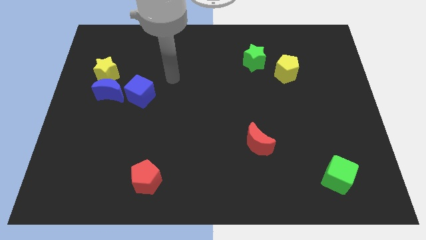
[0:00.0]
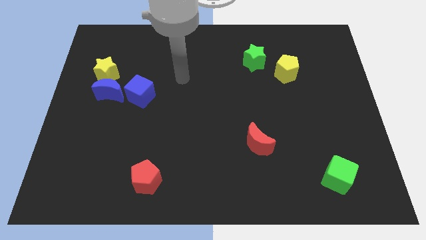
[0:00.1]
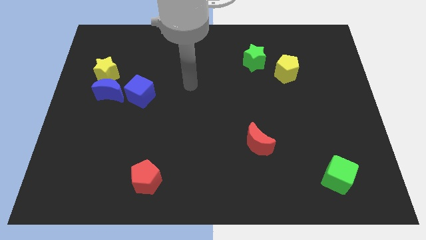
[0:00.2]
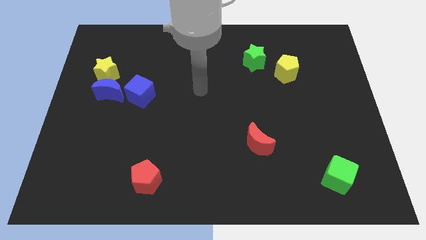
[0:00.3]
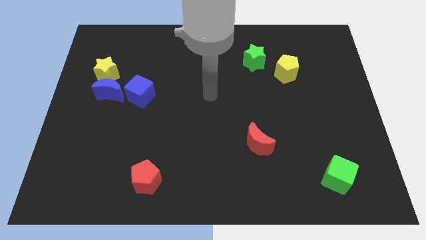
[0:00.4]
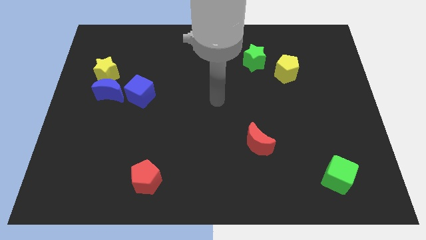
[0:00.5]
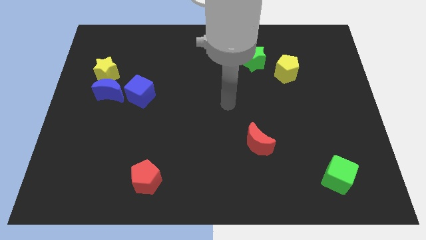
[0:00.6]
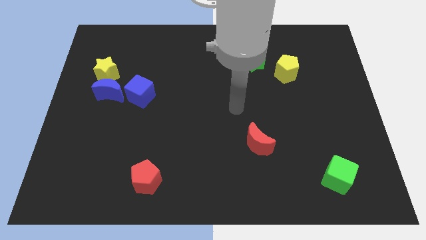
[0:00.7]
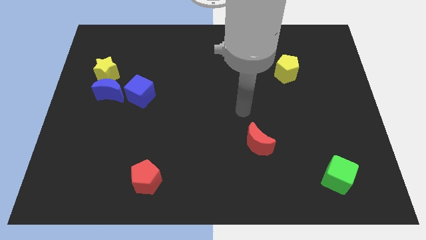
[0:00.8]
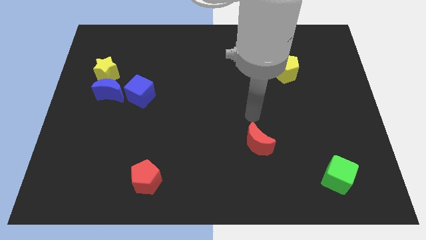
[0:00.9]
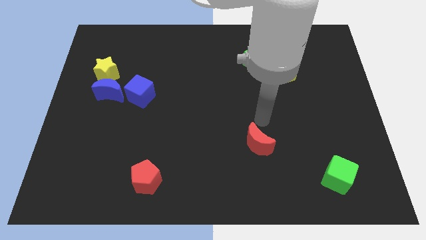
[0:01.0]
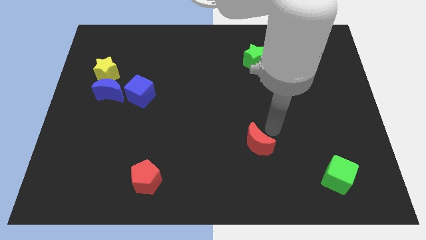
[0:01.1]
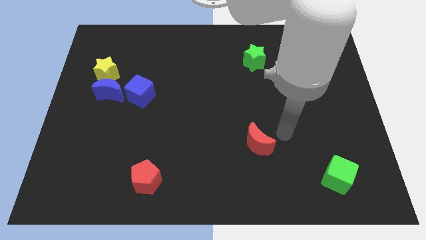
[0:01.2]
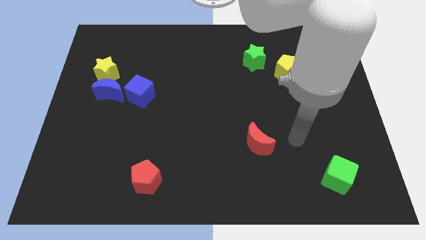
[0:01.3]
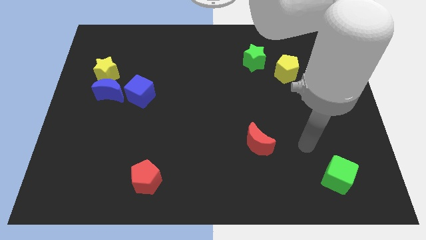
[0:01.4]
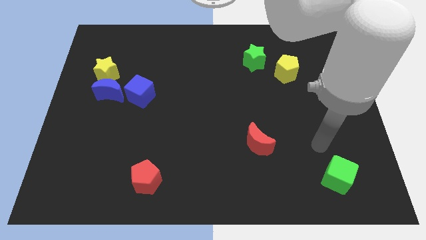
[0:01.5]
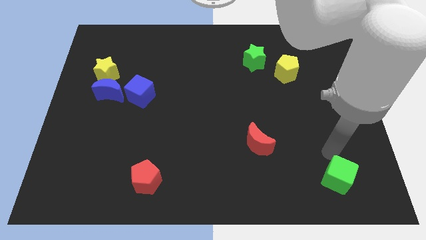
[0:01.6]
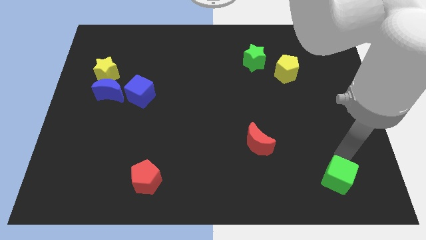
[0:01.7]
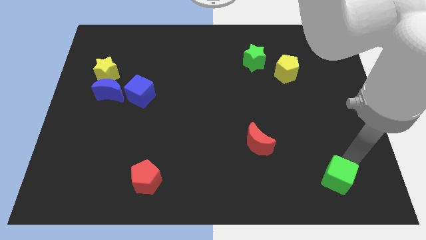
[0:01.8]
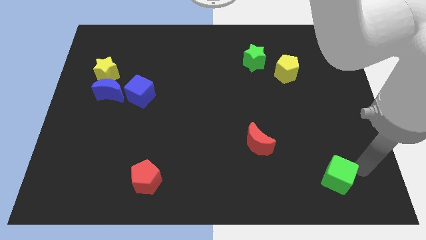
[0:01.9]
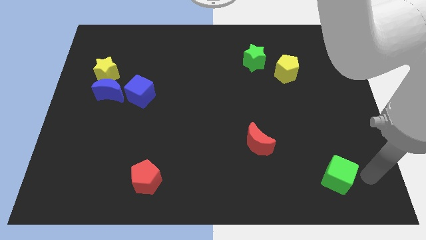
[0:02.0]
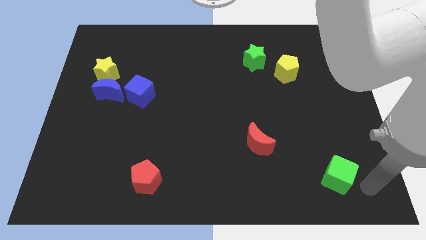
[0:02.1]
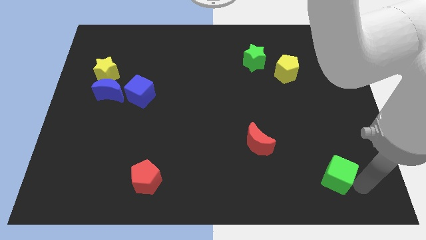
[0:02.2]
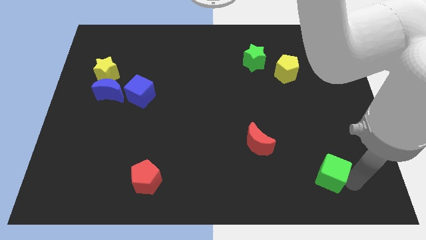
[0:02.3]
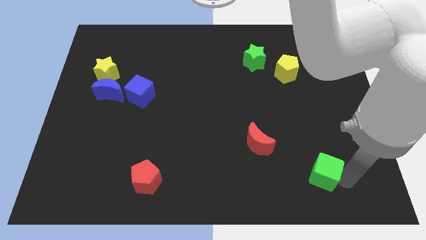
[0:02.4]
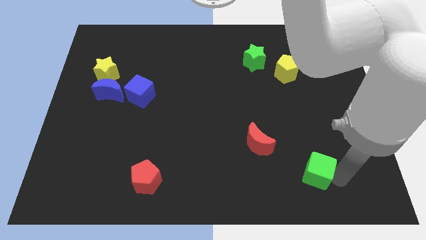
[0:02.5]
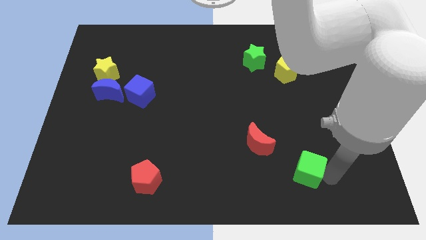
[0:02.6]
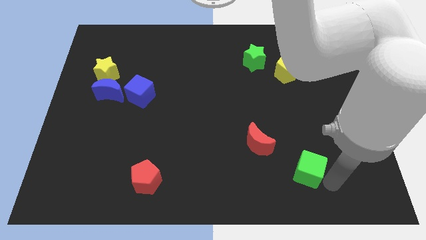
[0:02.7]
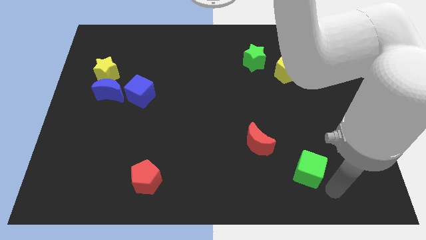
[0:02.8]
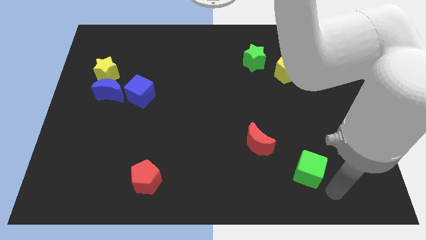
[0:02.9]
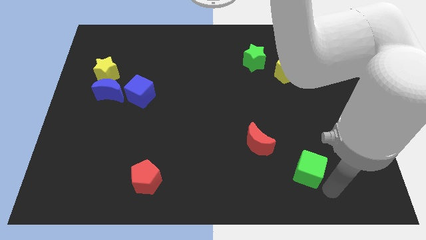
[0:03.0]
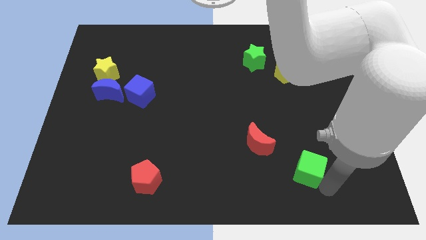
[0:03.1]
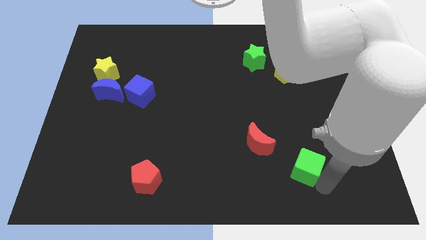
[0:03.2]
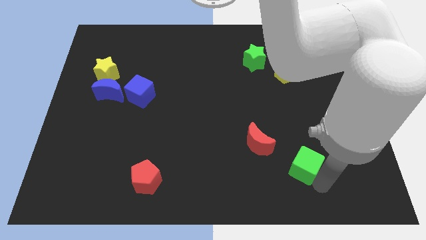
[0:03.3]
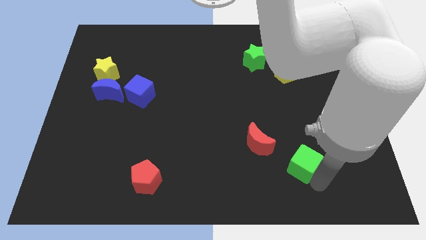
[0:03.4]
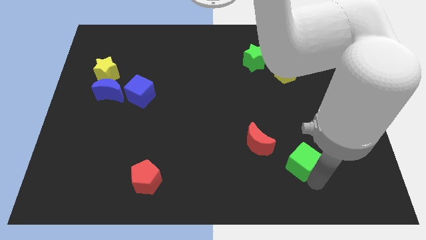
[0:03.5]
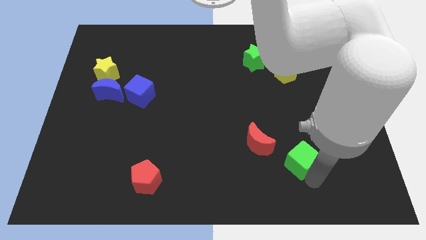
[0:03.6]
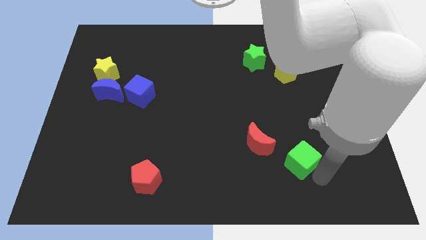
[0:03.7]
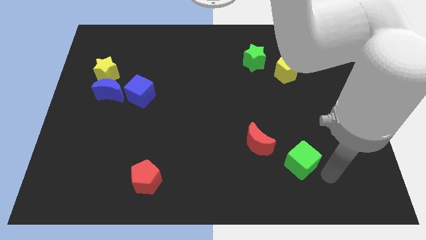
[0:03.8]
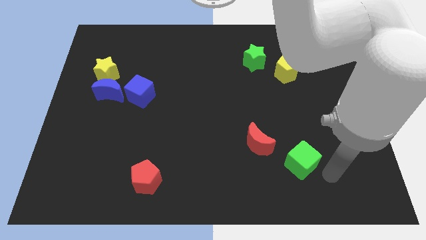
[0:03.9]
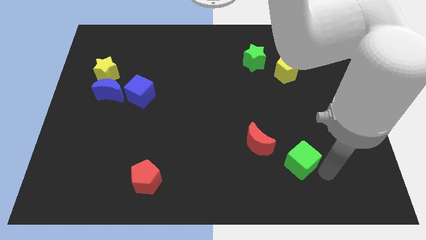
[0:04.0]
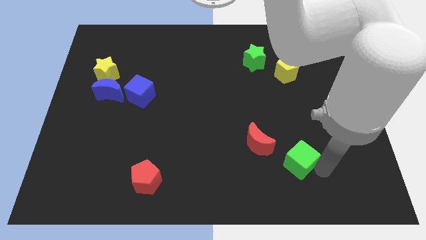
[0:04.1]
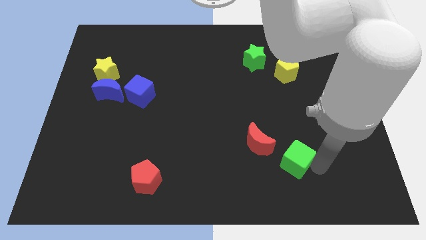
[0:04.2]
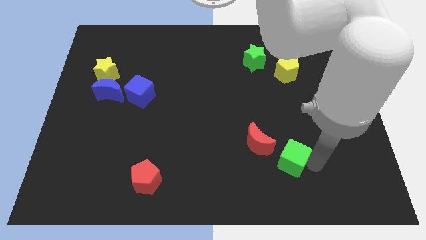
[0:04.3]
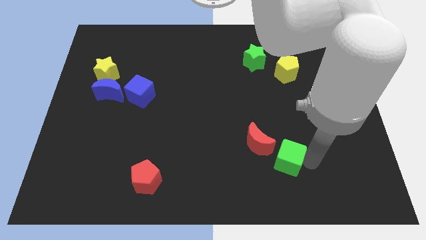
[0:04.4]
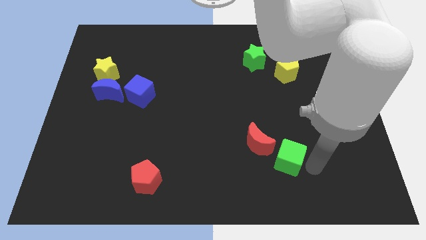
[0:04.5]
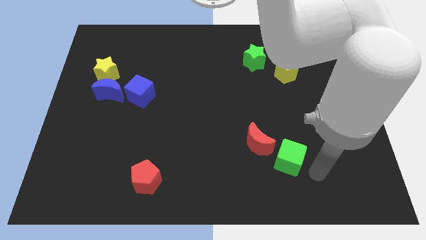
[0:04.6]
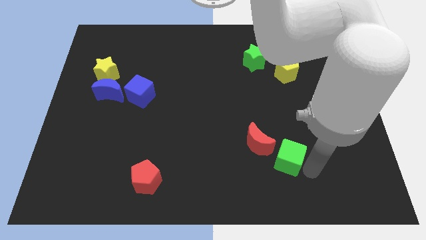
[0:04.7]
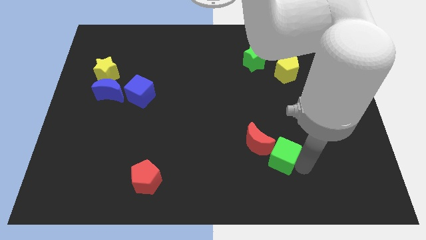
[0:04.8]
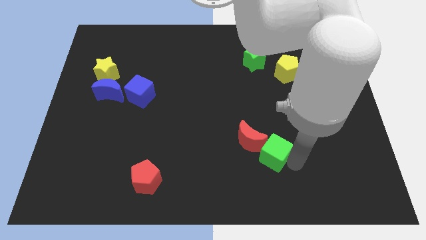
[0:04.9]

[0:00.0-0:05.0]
put the green cube to the red moon

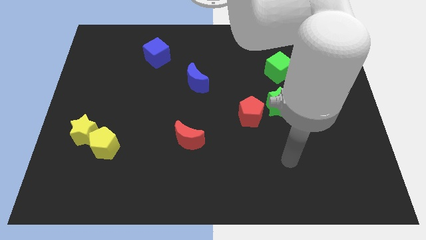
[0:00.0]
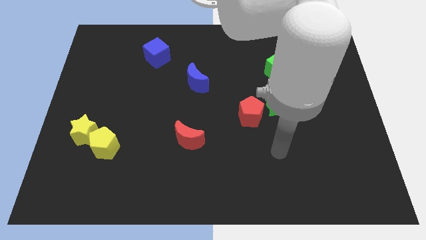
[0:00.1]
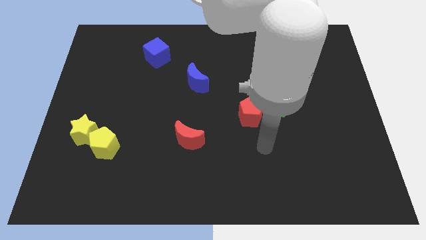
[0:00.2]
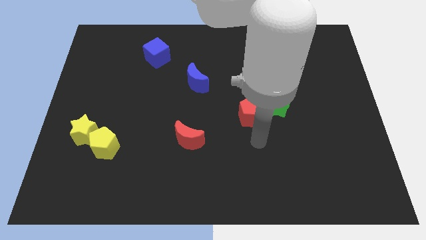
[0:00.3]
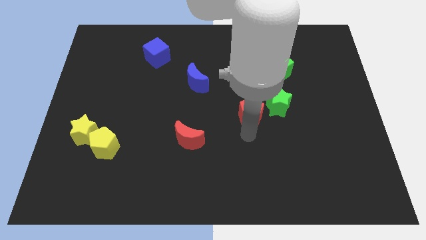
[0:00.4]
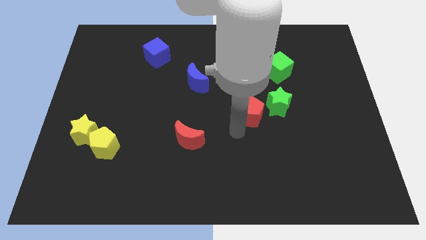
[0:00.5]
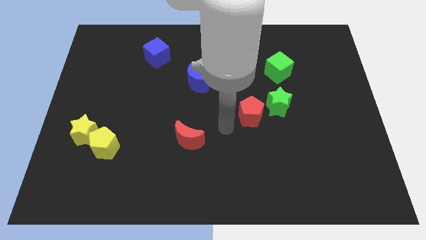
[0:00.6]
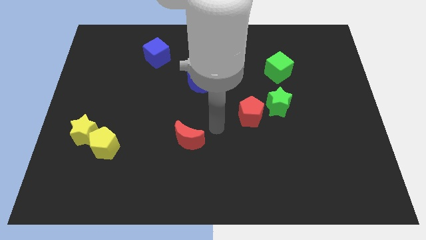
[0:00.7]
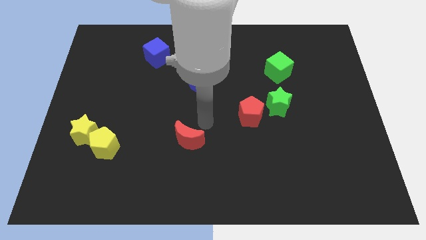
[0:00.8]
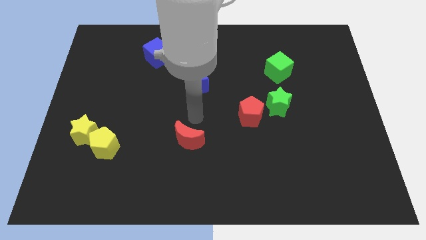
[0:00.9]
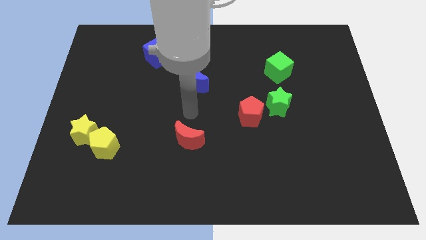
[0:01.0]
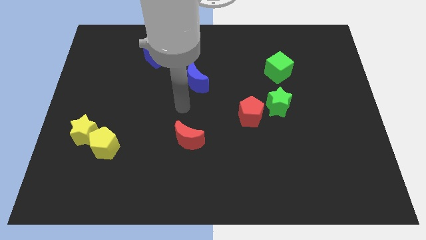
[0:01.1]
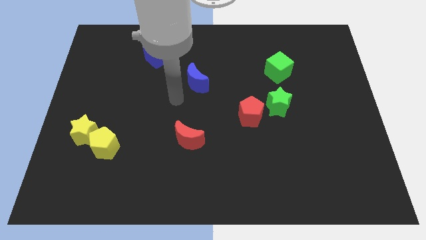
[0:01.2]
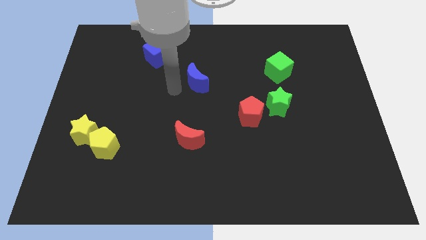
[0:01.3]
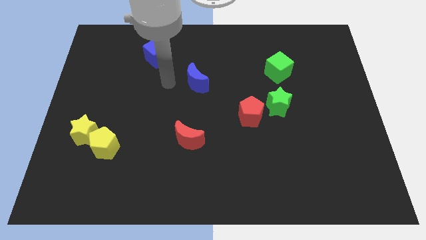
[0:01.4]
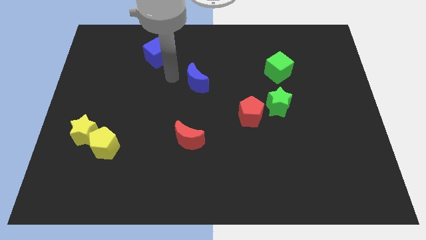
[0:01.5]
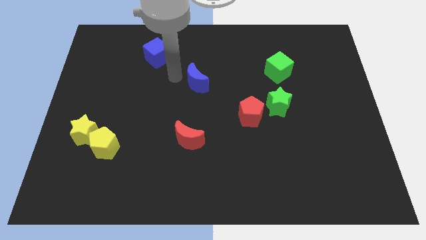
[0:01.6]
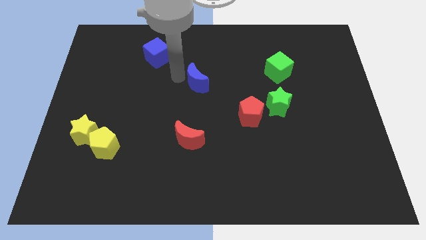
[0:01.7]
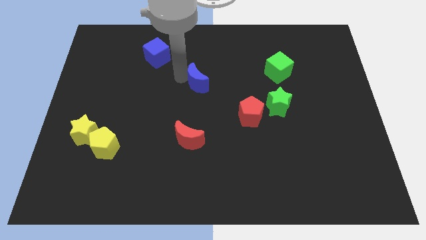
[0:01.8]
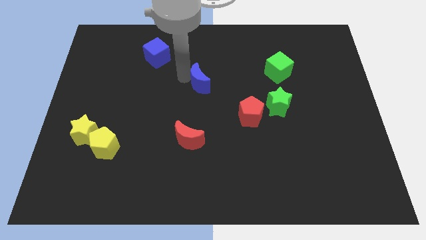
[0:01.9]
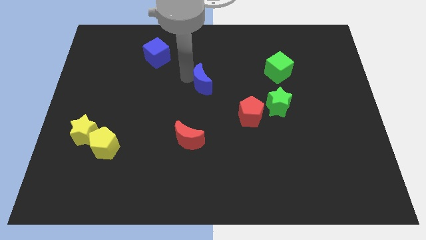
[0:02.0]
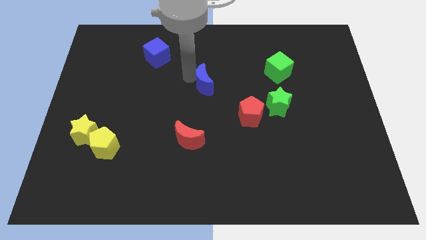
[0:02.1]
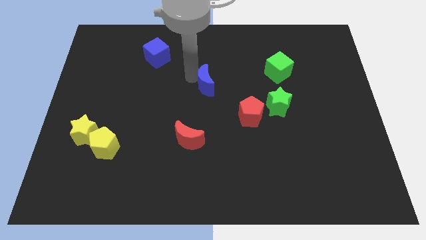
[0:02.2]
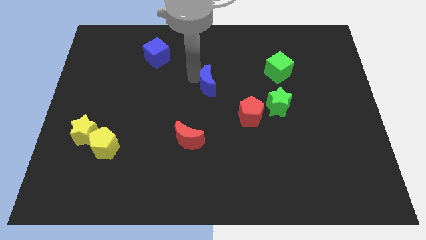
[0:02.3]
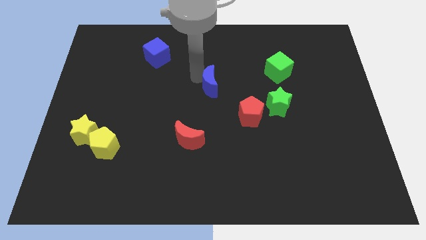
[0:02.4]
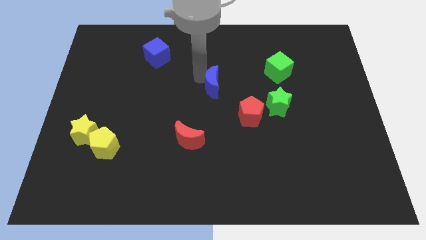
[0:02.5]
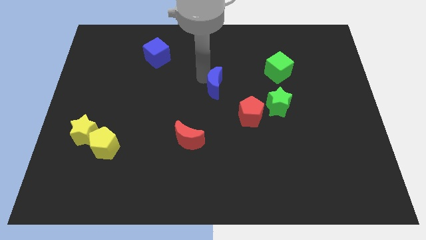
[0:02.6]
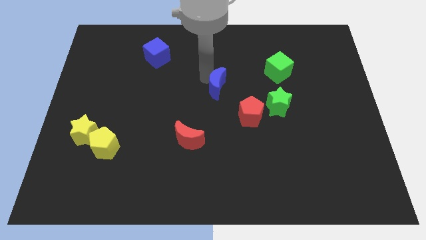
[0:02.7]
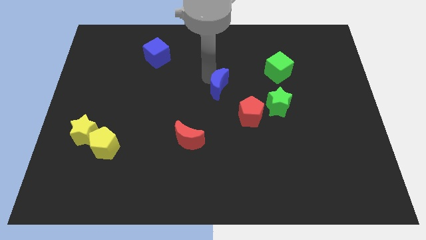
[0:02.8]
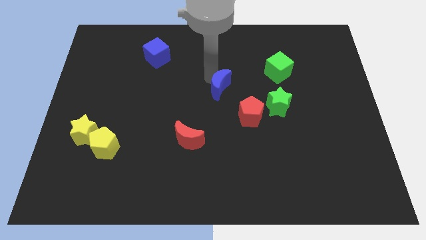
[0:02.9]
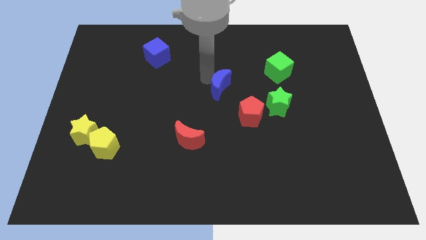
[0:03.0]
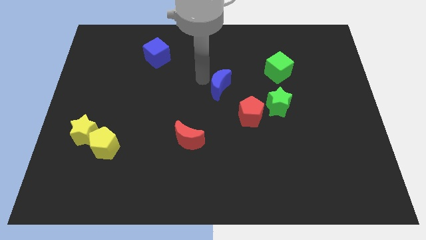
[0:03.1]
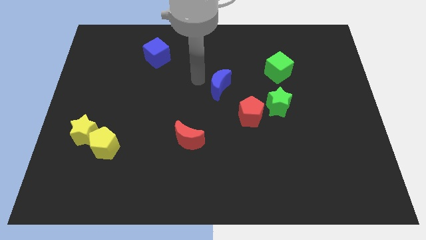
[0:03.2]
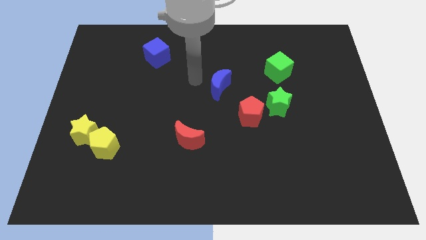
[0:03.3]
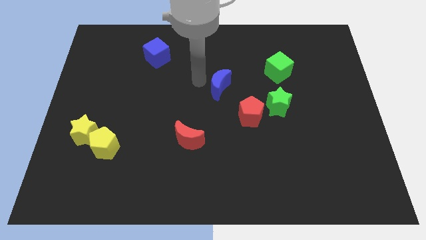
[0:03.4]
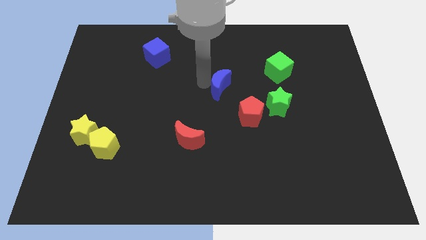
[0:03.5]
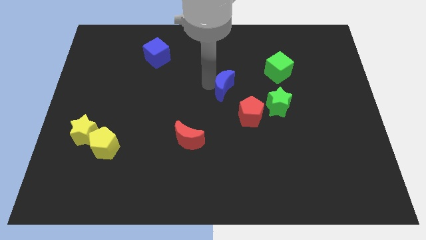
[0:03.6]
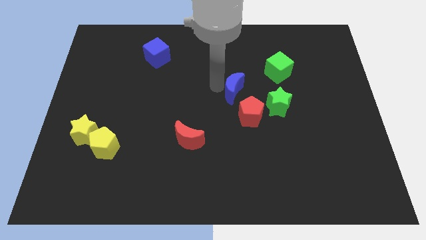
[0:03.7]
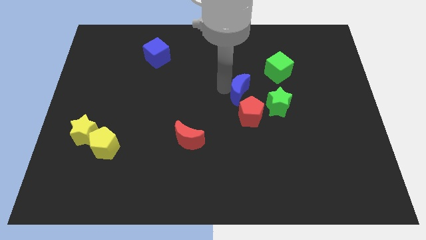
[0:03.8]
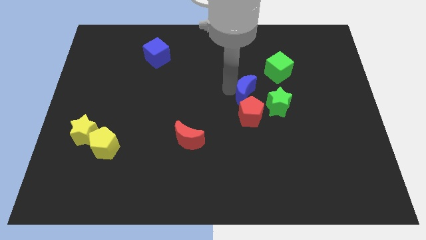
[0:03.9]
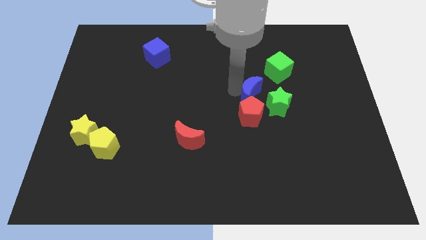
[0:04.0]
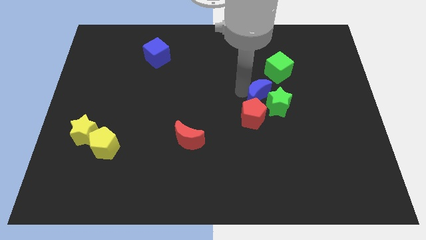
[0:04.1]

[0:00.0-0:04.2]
put the blue moon to the green star
